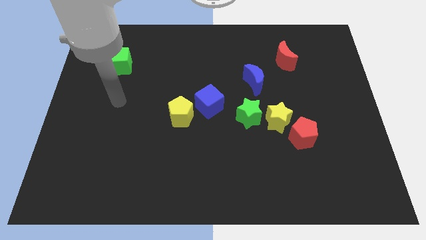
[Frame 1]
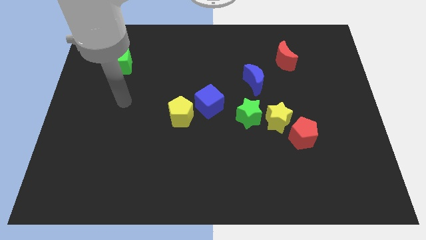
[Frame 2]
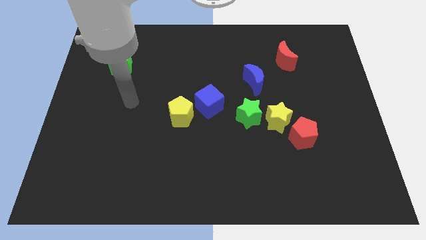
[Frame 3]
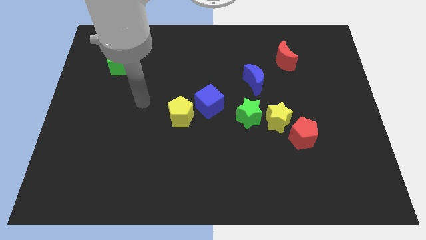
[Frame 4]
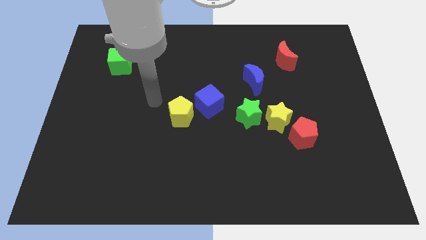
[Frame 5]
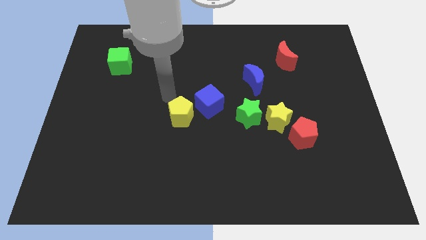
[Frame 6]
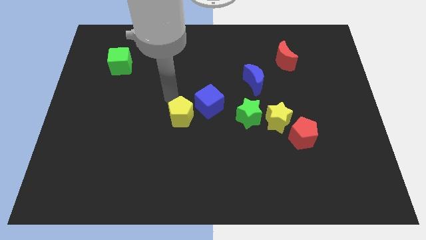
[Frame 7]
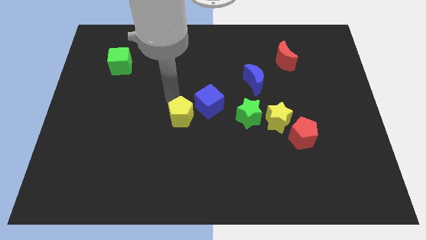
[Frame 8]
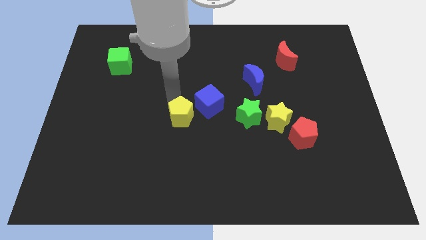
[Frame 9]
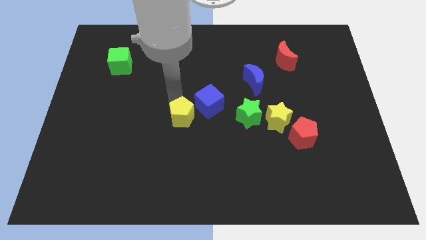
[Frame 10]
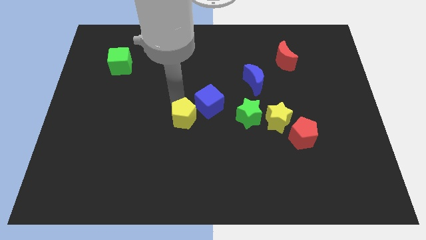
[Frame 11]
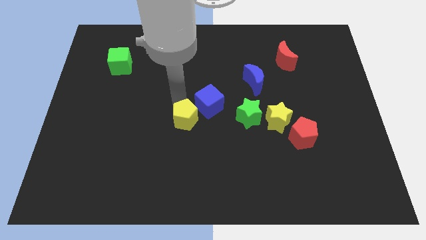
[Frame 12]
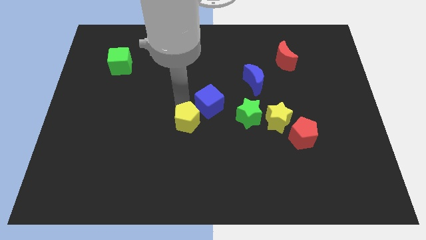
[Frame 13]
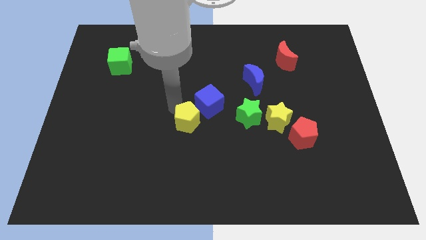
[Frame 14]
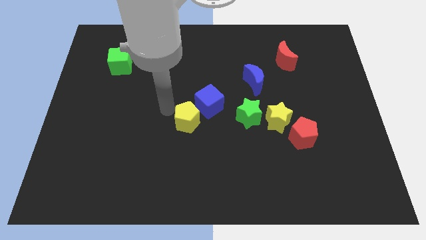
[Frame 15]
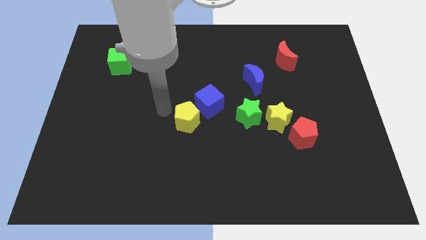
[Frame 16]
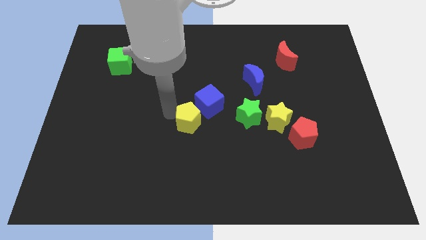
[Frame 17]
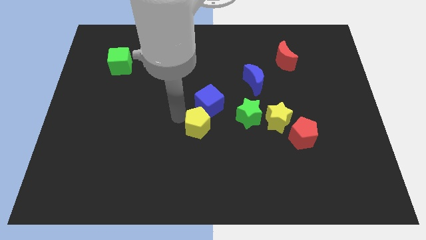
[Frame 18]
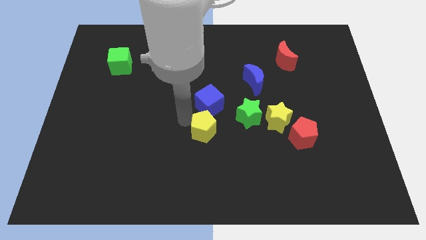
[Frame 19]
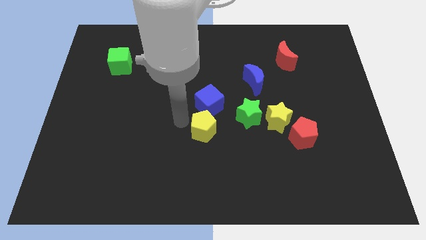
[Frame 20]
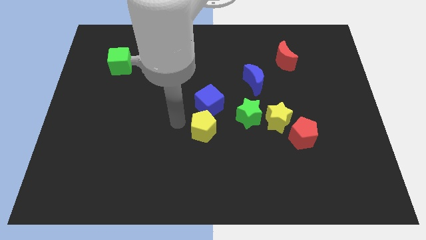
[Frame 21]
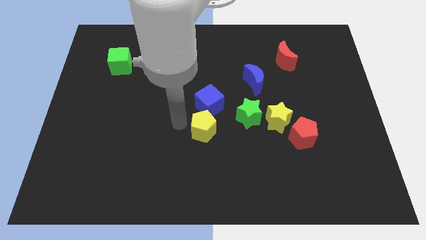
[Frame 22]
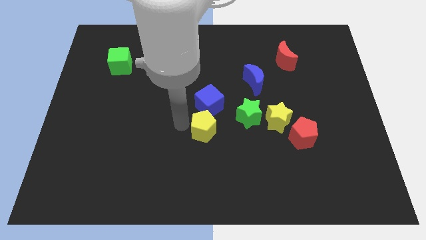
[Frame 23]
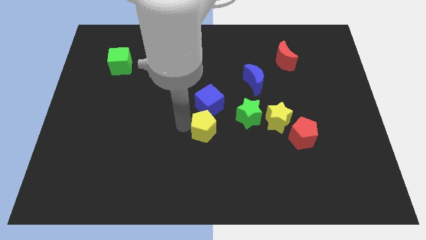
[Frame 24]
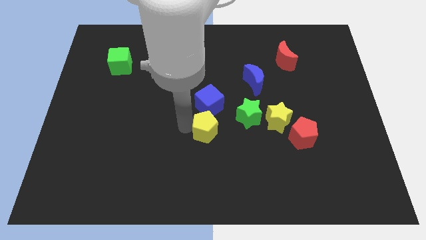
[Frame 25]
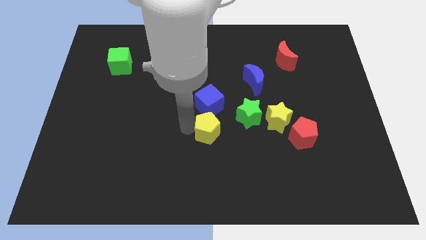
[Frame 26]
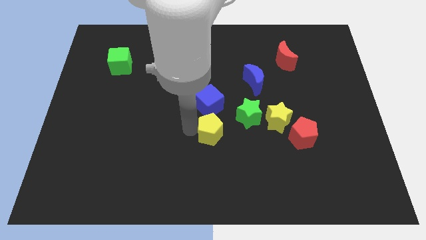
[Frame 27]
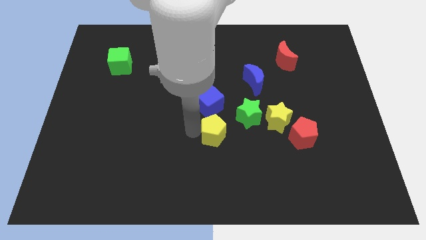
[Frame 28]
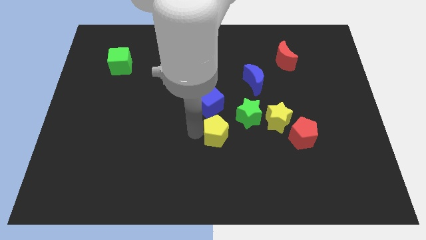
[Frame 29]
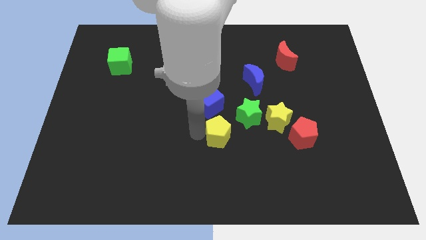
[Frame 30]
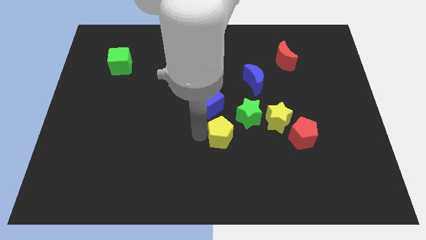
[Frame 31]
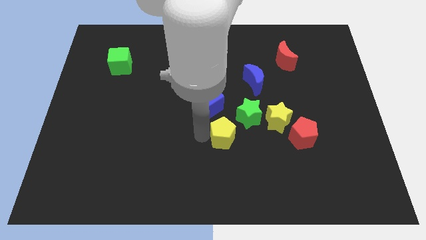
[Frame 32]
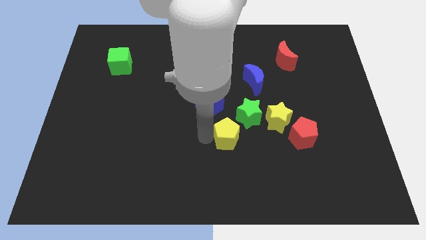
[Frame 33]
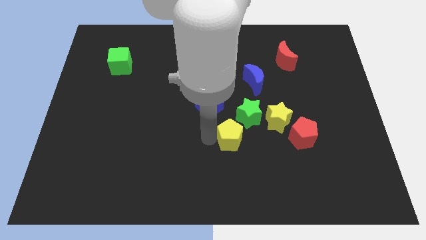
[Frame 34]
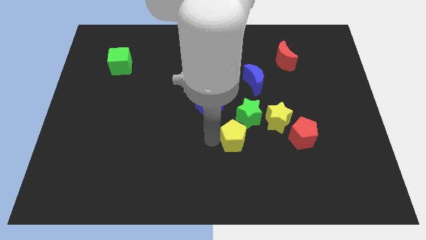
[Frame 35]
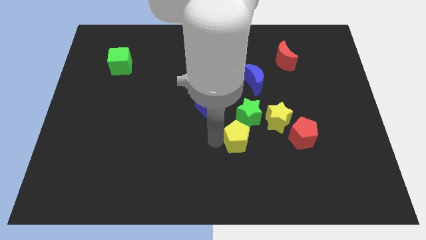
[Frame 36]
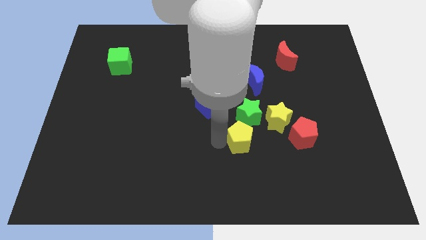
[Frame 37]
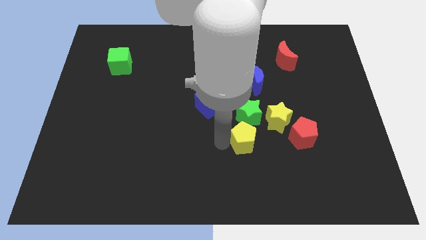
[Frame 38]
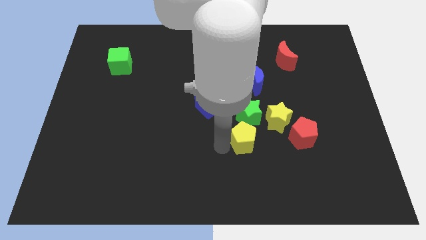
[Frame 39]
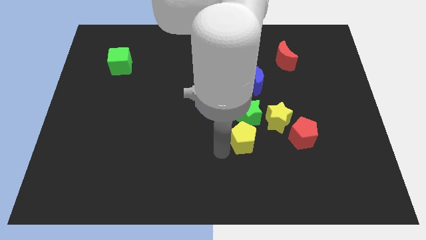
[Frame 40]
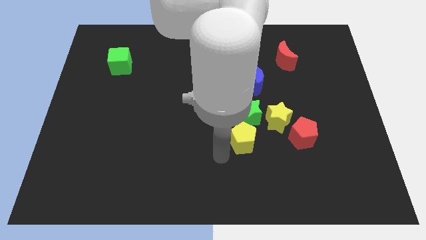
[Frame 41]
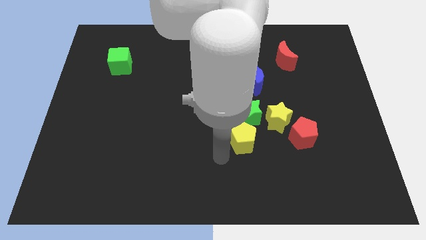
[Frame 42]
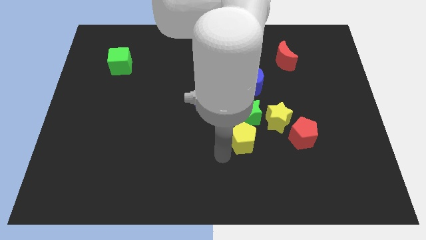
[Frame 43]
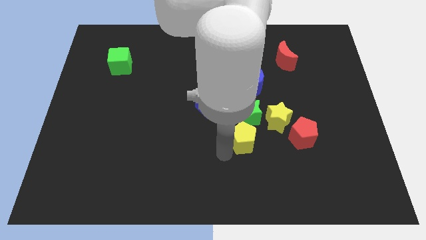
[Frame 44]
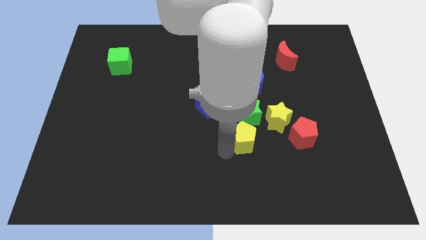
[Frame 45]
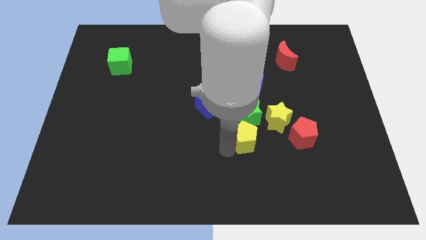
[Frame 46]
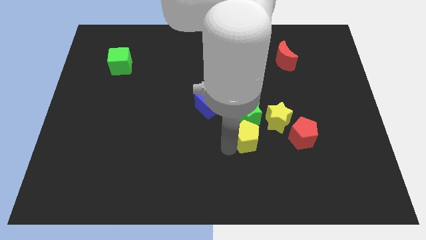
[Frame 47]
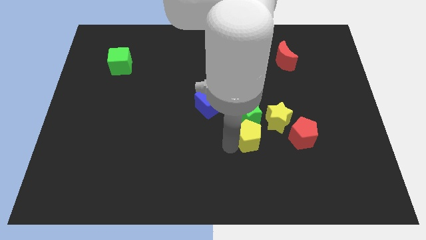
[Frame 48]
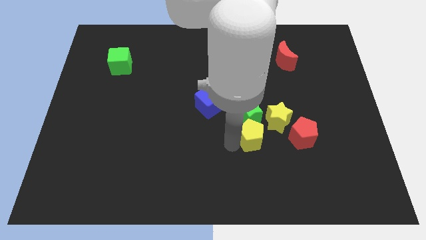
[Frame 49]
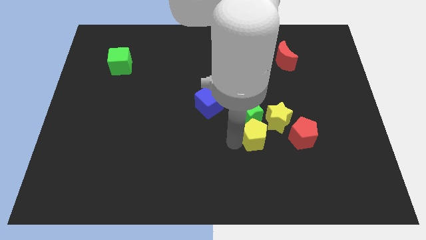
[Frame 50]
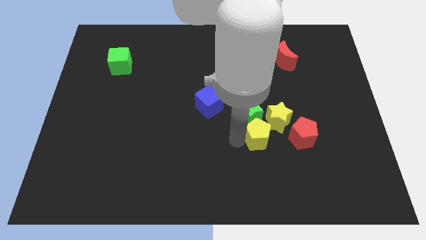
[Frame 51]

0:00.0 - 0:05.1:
slide the yellow pentagon below the blue moon

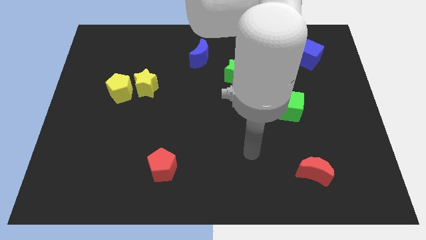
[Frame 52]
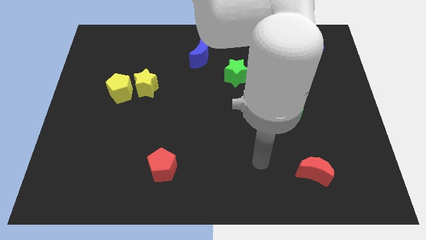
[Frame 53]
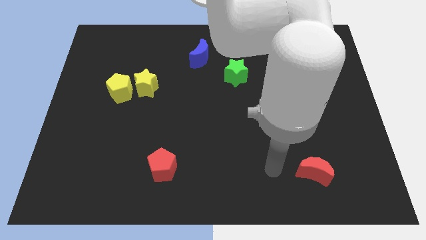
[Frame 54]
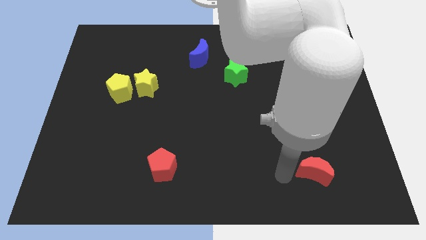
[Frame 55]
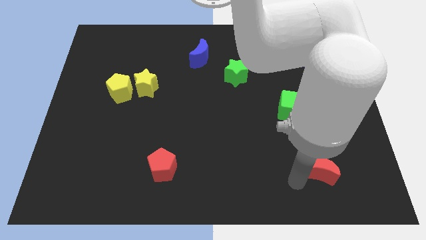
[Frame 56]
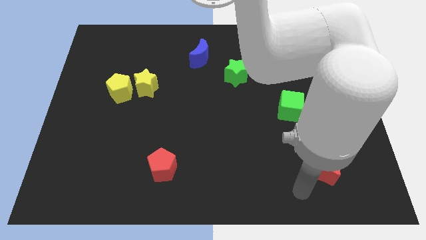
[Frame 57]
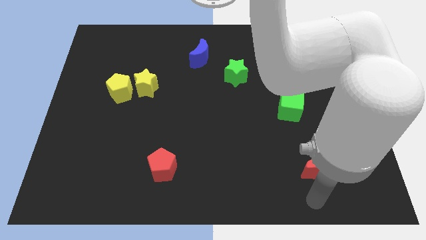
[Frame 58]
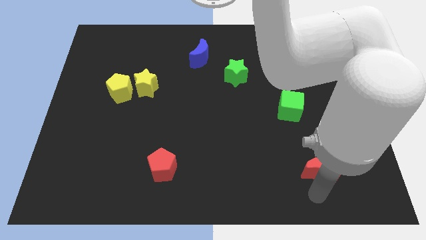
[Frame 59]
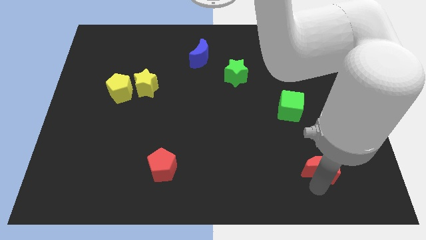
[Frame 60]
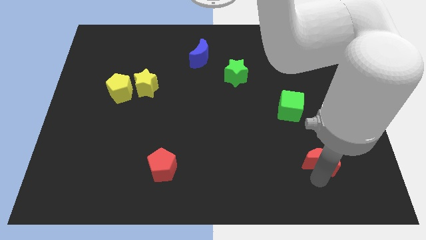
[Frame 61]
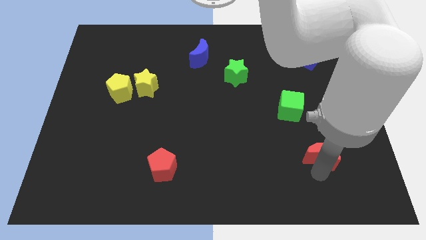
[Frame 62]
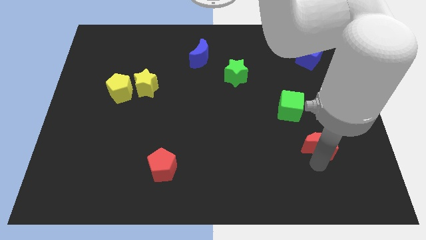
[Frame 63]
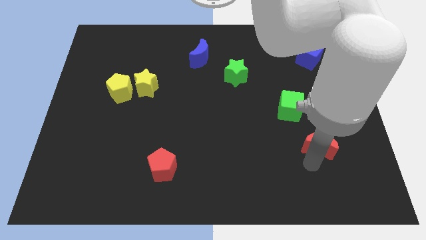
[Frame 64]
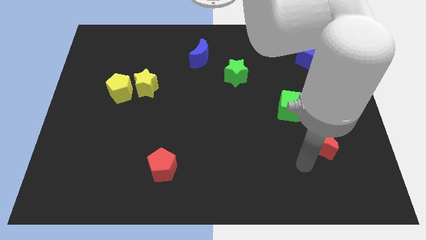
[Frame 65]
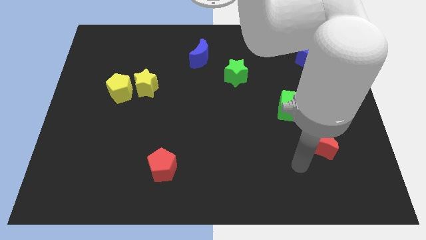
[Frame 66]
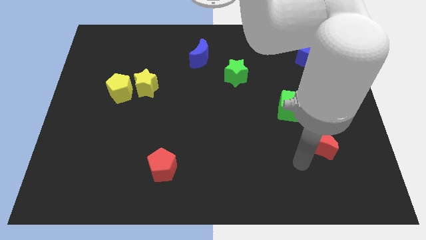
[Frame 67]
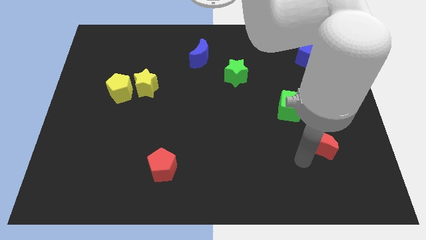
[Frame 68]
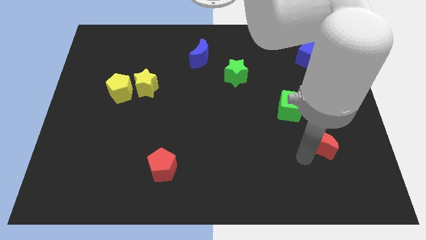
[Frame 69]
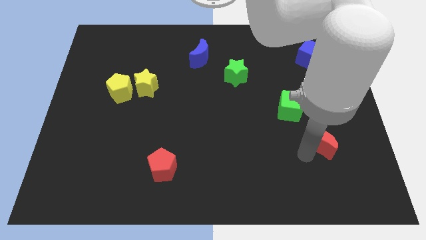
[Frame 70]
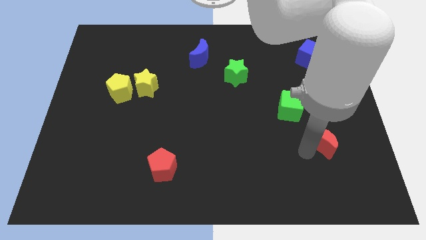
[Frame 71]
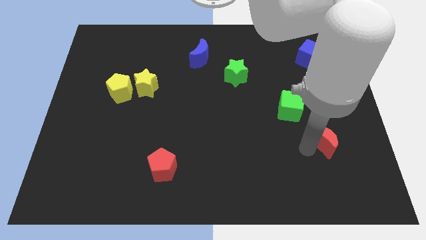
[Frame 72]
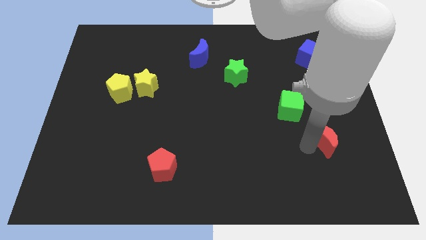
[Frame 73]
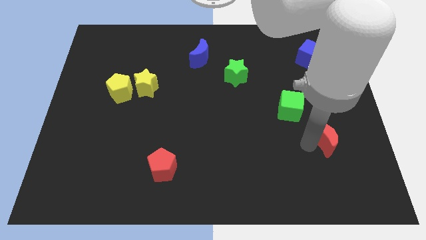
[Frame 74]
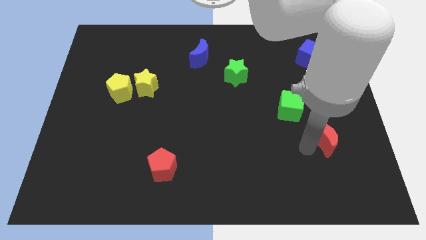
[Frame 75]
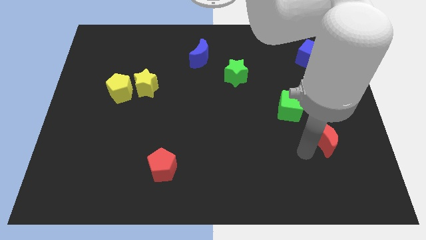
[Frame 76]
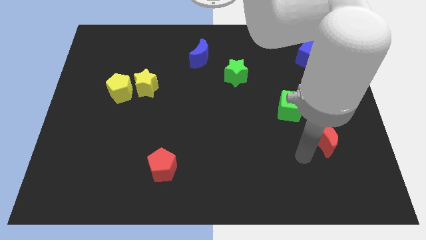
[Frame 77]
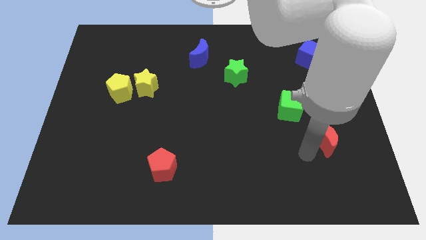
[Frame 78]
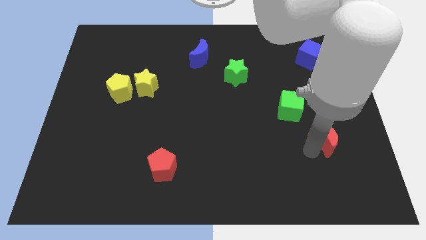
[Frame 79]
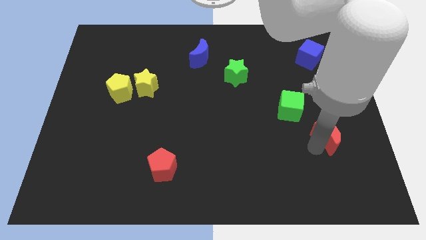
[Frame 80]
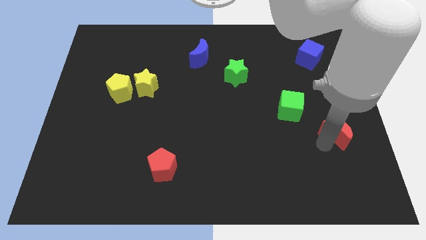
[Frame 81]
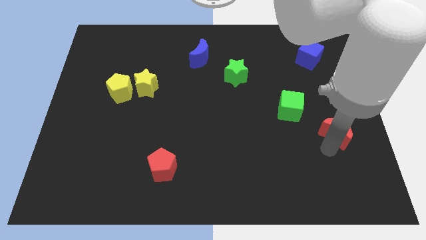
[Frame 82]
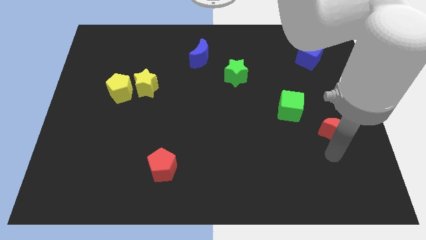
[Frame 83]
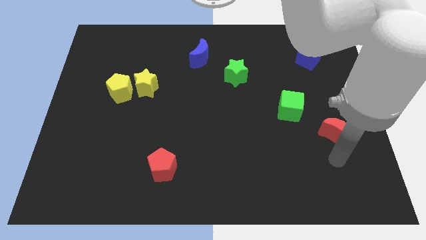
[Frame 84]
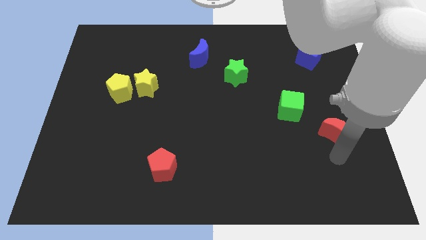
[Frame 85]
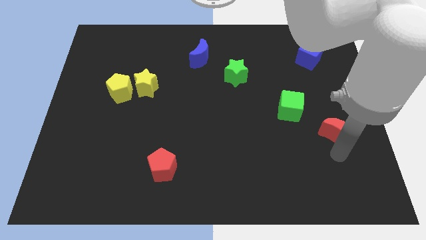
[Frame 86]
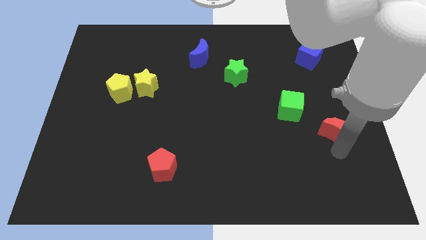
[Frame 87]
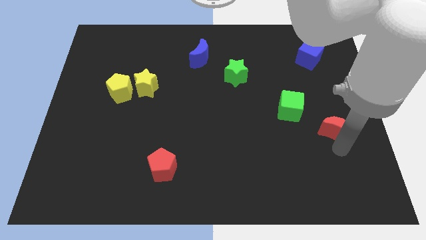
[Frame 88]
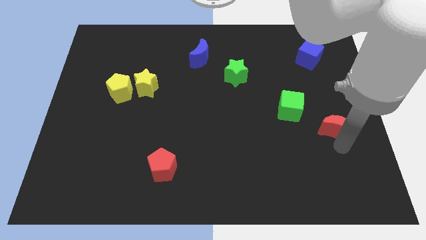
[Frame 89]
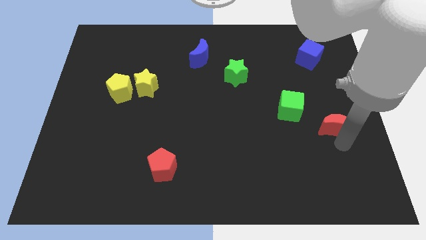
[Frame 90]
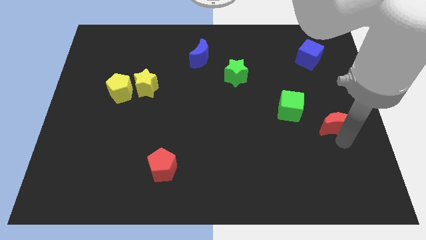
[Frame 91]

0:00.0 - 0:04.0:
push the red moon right of the green cube
